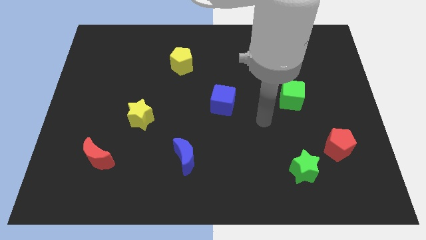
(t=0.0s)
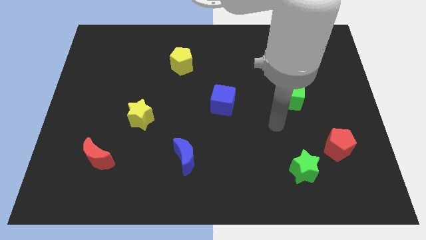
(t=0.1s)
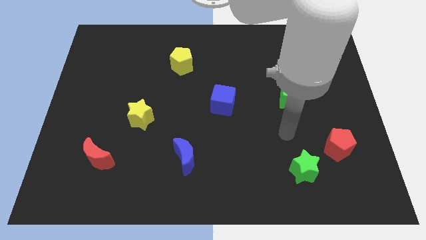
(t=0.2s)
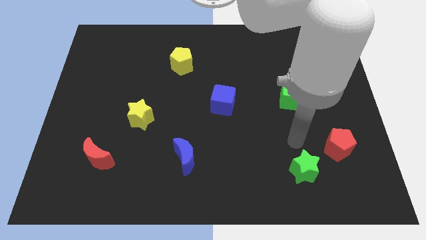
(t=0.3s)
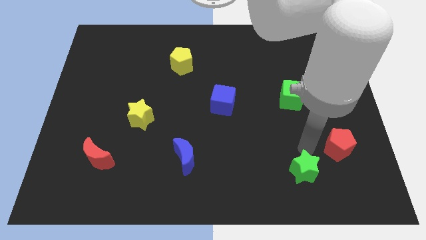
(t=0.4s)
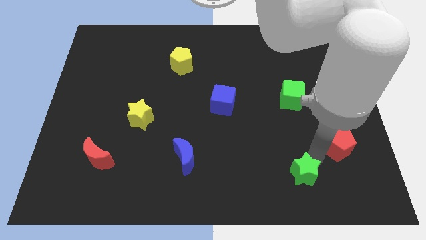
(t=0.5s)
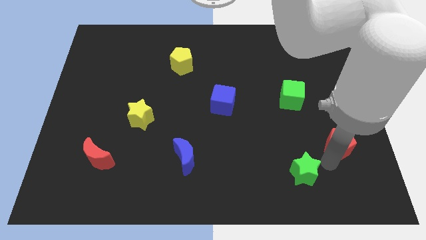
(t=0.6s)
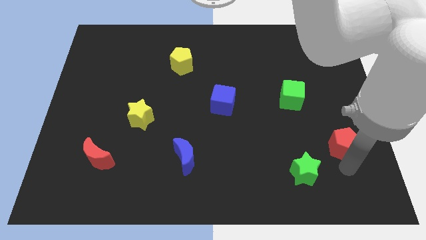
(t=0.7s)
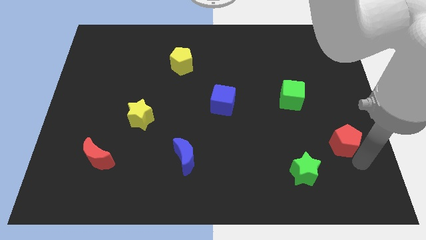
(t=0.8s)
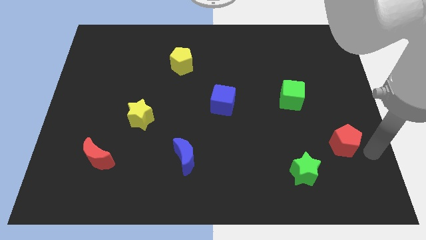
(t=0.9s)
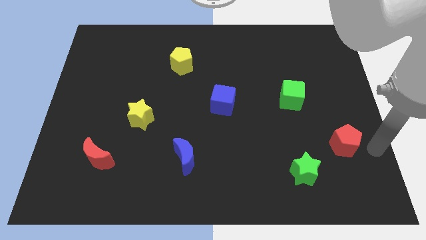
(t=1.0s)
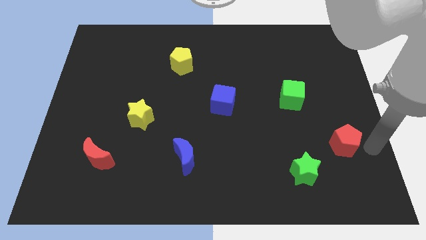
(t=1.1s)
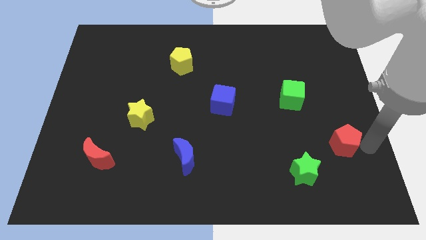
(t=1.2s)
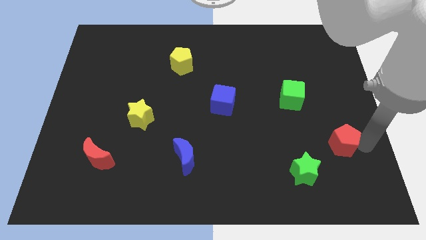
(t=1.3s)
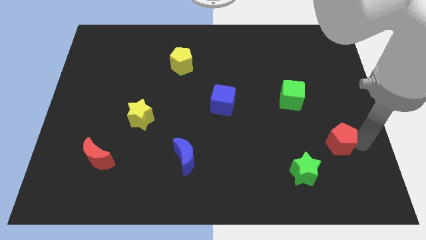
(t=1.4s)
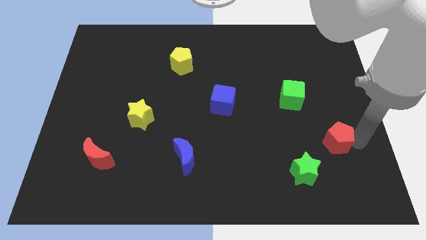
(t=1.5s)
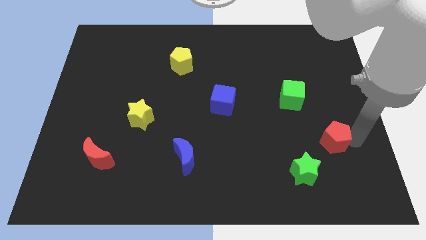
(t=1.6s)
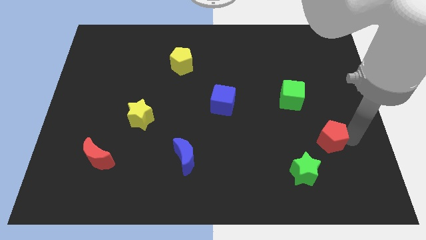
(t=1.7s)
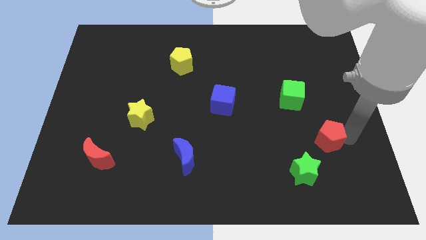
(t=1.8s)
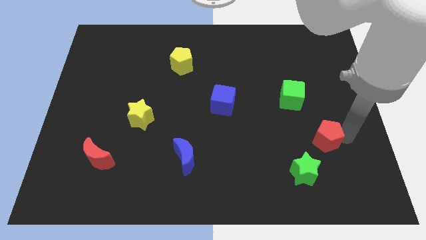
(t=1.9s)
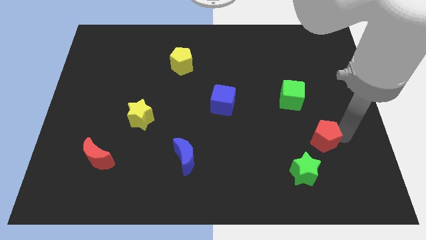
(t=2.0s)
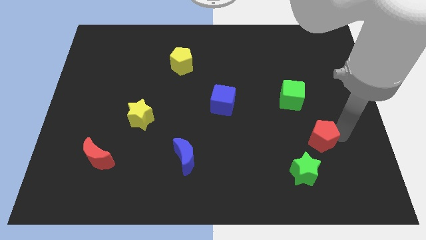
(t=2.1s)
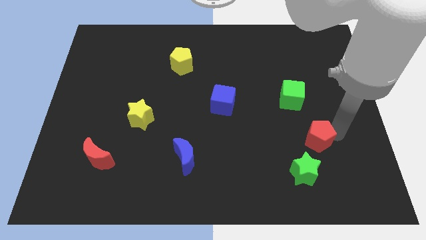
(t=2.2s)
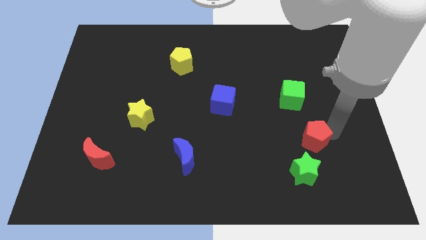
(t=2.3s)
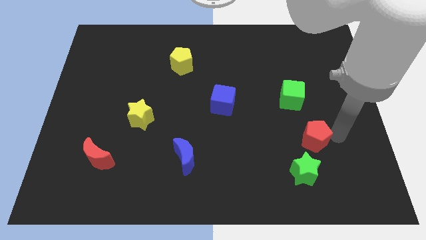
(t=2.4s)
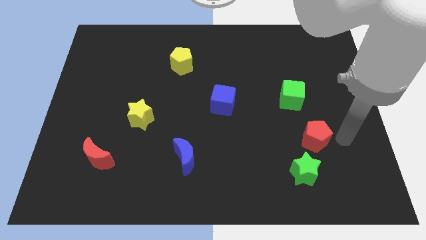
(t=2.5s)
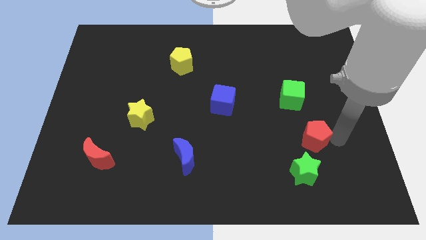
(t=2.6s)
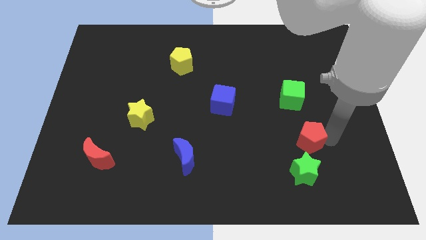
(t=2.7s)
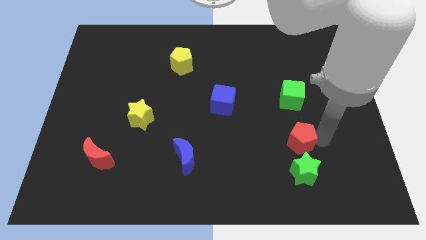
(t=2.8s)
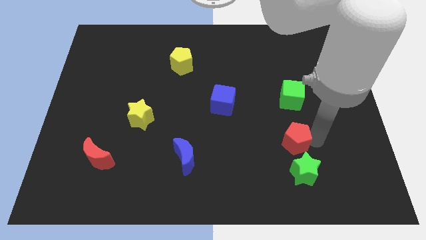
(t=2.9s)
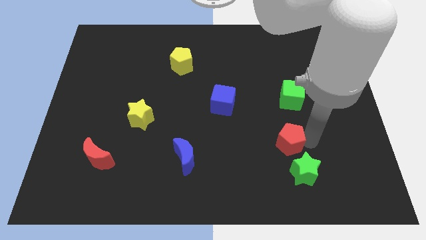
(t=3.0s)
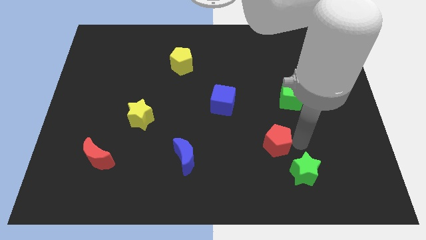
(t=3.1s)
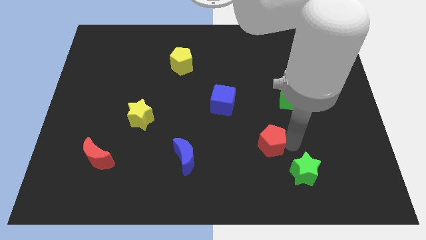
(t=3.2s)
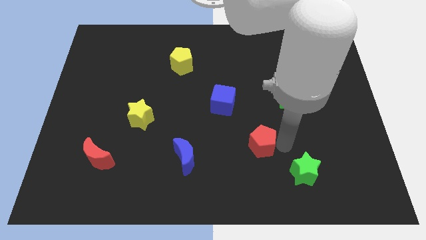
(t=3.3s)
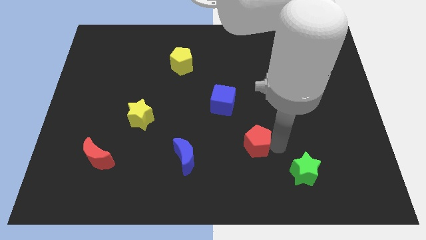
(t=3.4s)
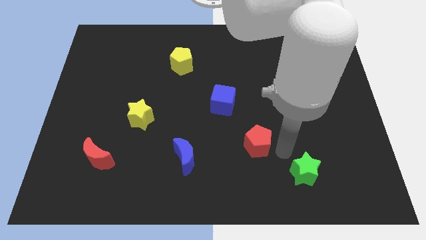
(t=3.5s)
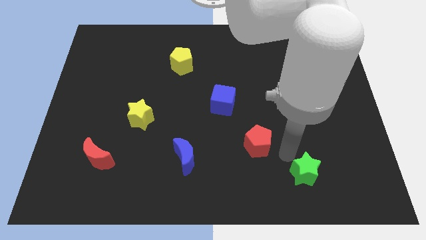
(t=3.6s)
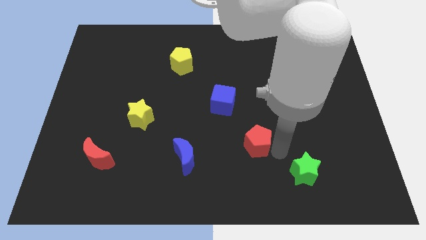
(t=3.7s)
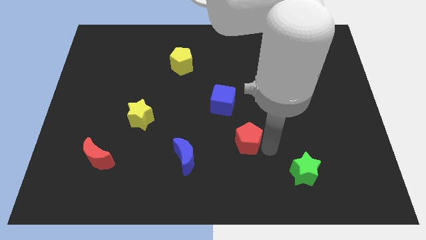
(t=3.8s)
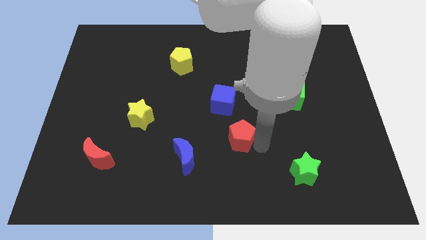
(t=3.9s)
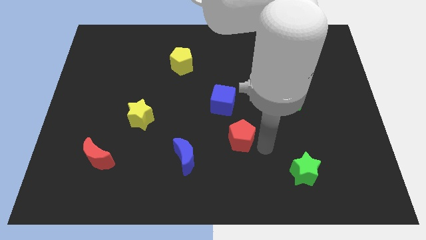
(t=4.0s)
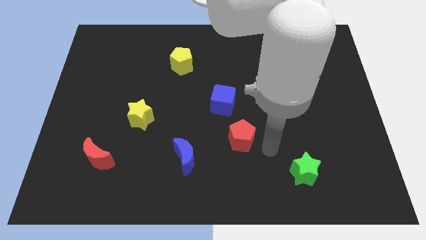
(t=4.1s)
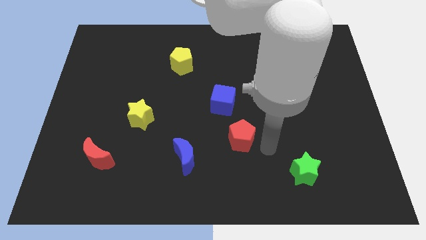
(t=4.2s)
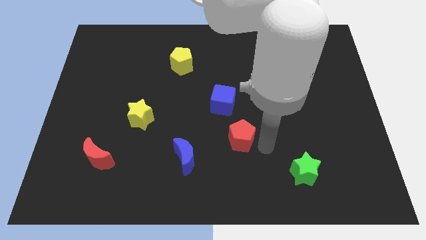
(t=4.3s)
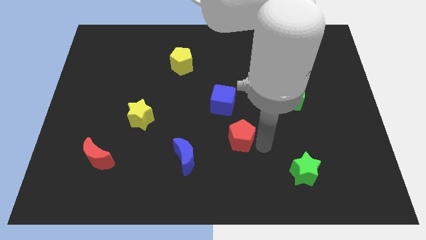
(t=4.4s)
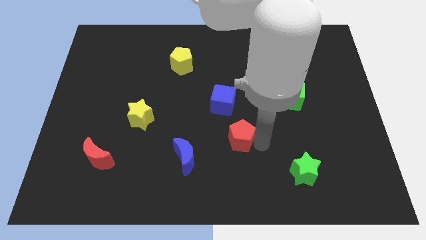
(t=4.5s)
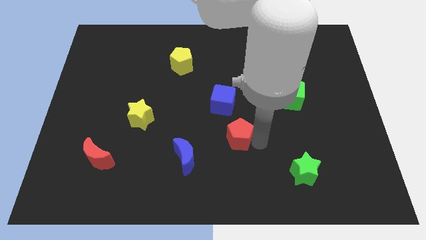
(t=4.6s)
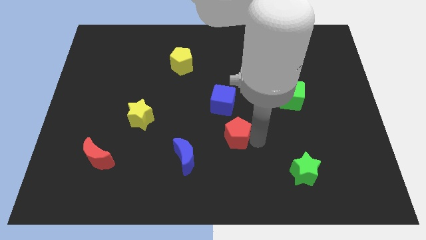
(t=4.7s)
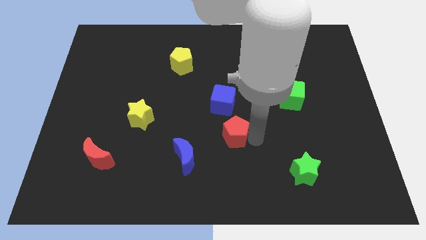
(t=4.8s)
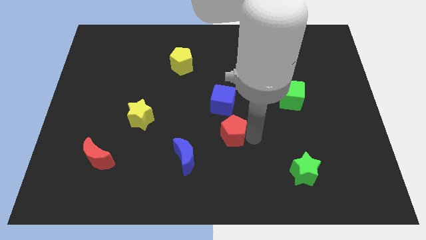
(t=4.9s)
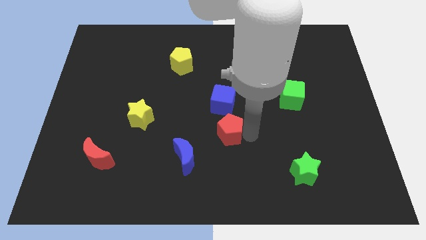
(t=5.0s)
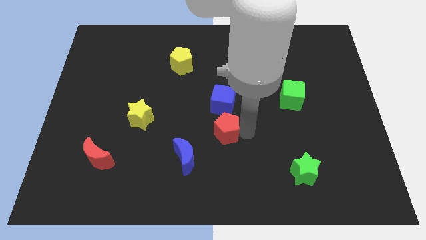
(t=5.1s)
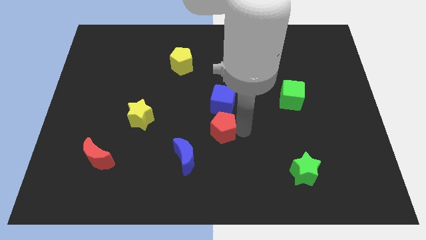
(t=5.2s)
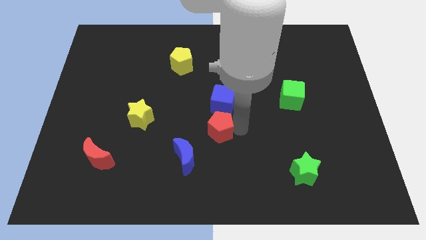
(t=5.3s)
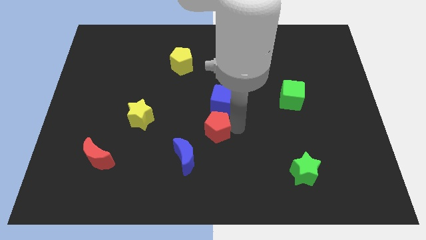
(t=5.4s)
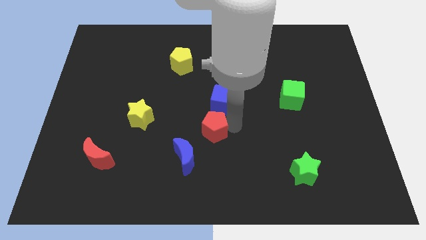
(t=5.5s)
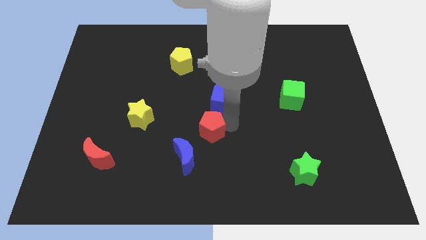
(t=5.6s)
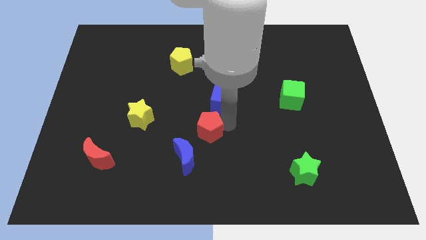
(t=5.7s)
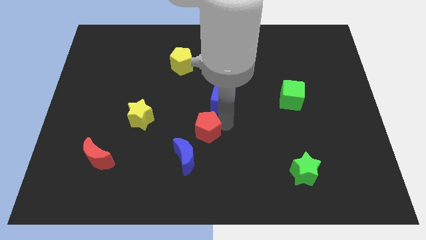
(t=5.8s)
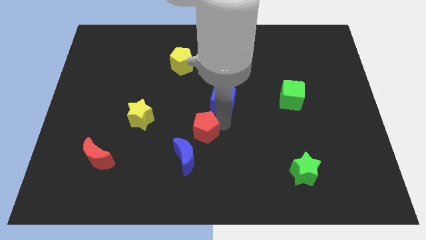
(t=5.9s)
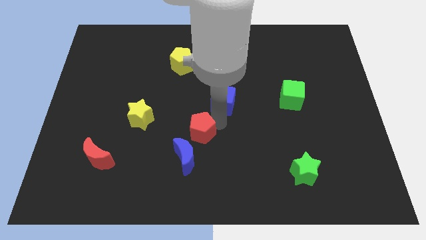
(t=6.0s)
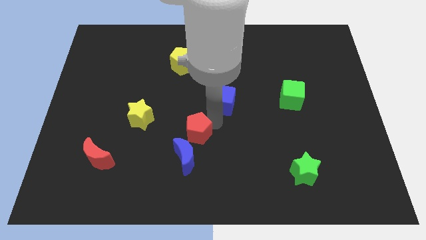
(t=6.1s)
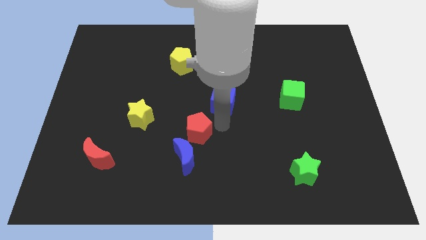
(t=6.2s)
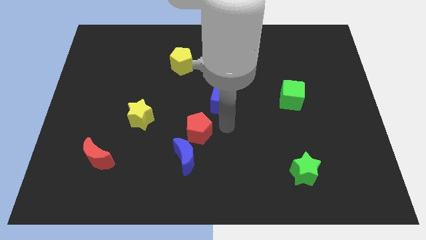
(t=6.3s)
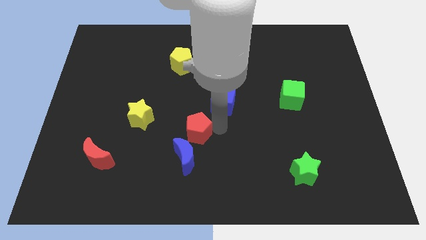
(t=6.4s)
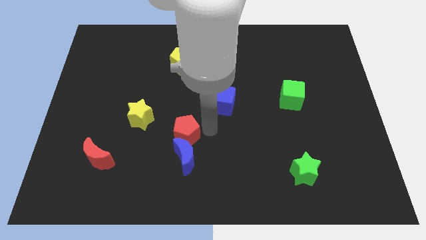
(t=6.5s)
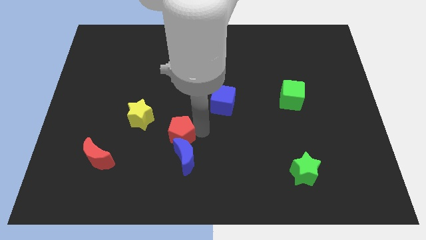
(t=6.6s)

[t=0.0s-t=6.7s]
move the red pentagon diagonally down and to the right of the yellow star
